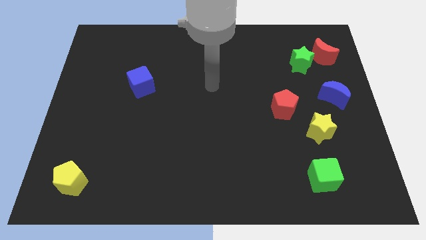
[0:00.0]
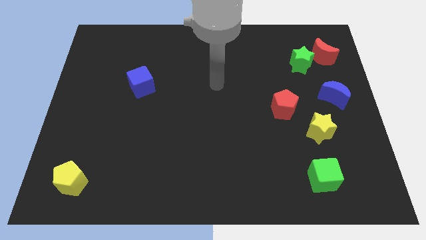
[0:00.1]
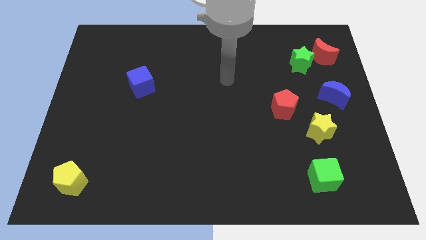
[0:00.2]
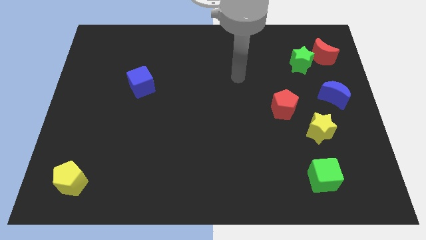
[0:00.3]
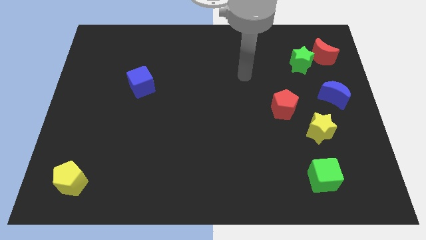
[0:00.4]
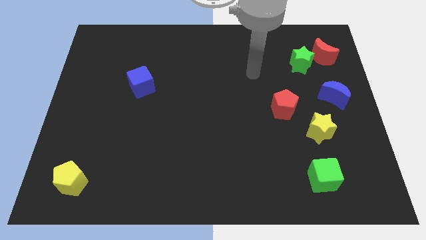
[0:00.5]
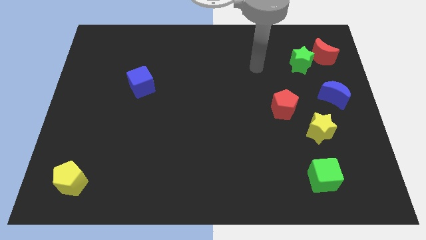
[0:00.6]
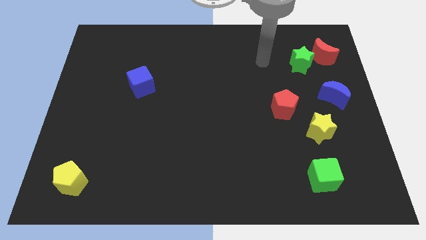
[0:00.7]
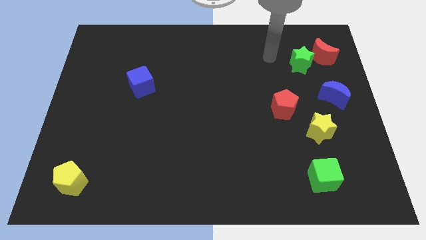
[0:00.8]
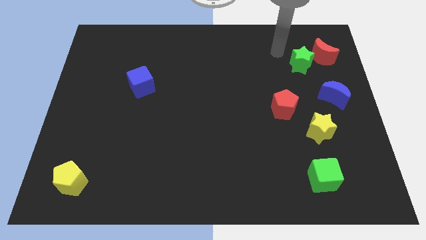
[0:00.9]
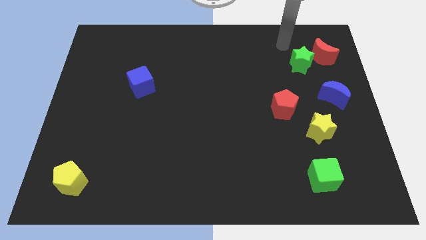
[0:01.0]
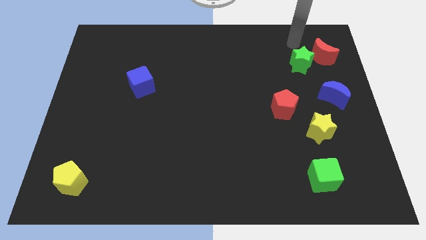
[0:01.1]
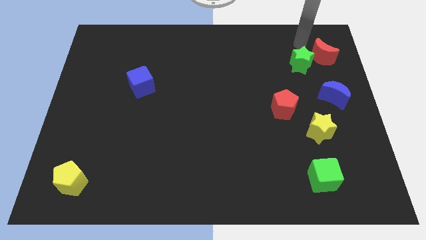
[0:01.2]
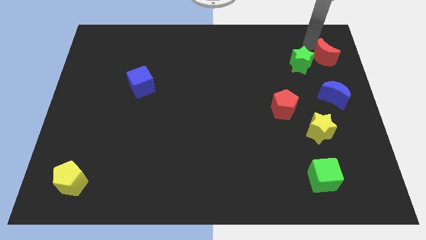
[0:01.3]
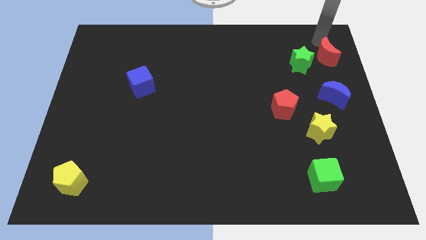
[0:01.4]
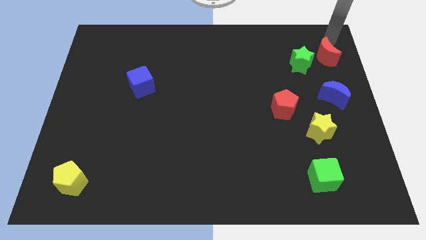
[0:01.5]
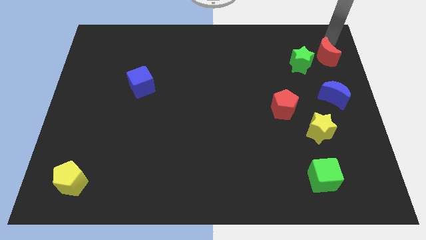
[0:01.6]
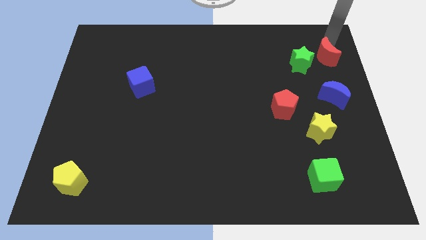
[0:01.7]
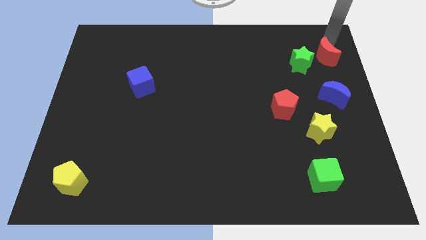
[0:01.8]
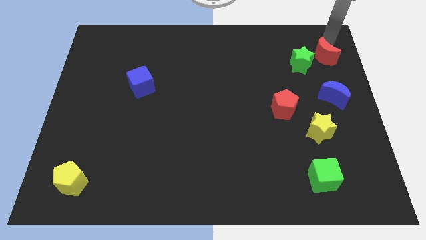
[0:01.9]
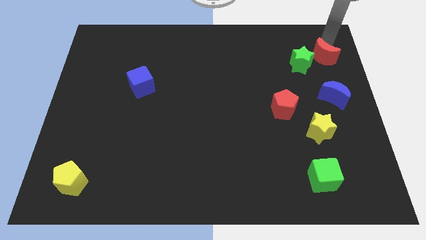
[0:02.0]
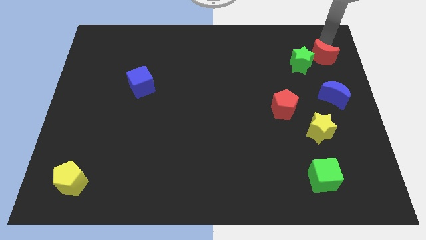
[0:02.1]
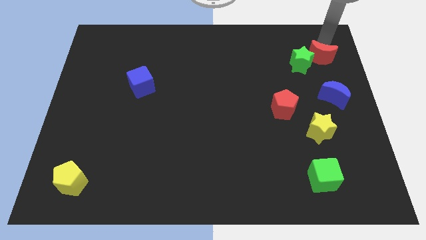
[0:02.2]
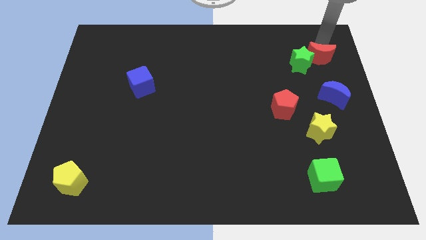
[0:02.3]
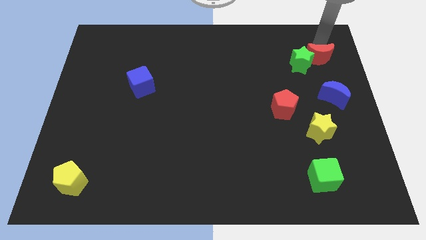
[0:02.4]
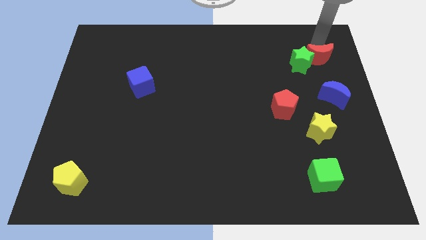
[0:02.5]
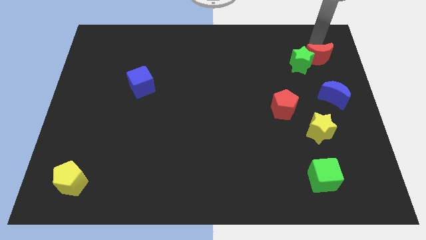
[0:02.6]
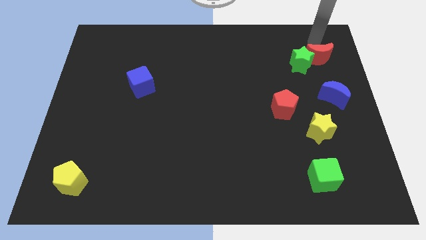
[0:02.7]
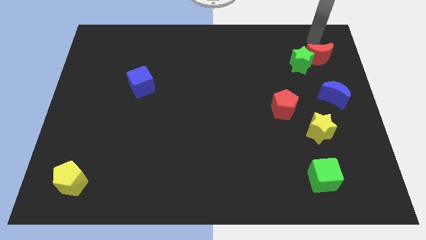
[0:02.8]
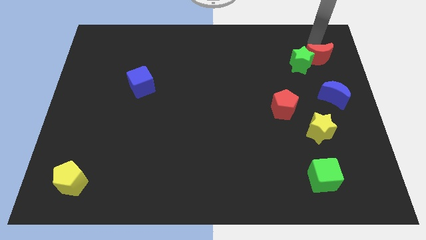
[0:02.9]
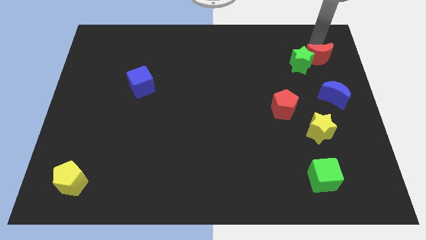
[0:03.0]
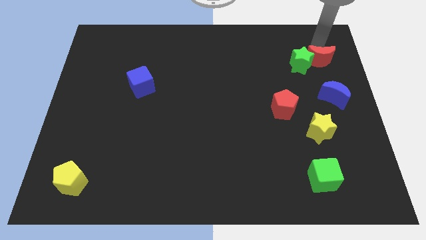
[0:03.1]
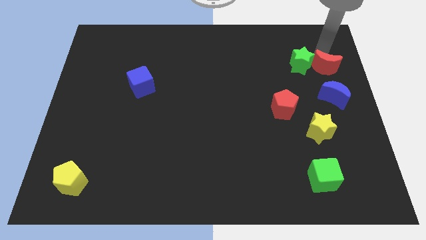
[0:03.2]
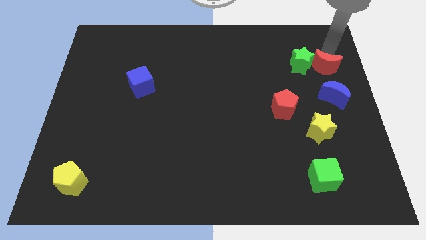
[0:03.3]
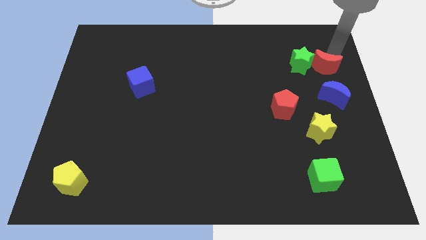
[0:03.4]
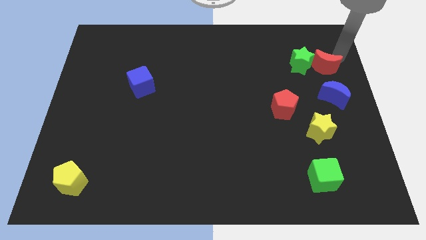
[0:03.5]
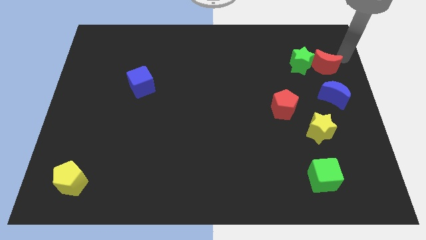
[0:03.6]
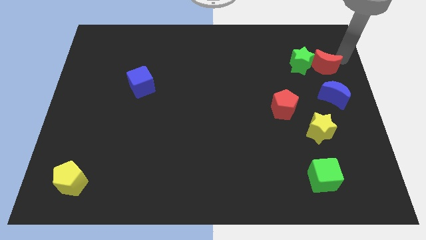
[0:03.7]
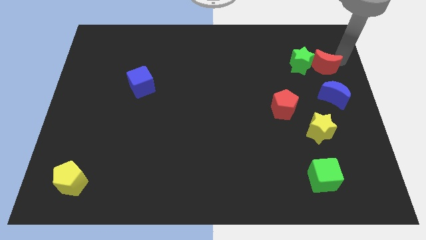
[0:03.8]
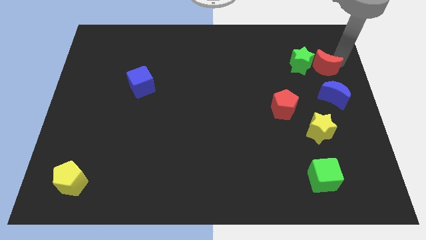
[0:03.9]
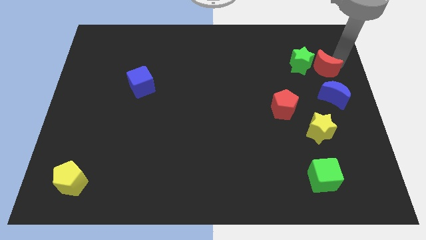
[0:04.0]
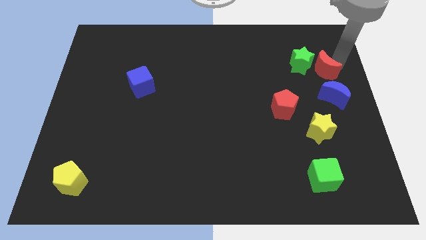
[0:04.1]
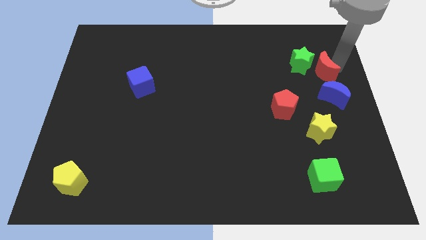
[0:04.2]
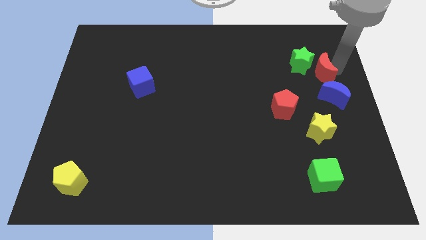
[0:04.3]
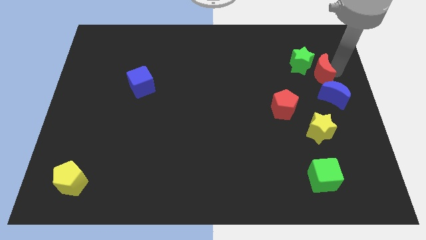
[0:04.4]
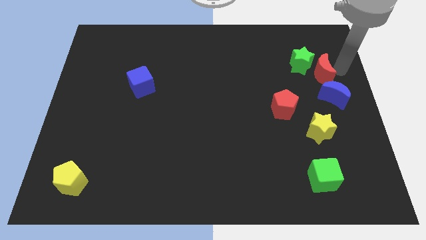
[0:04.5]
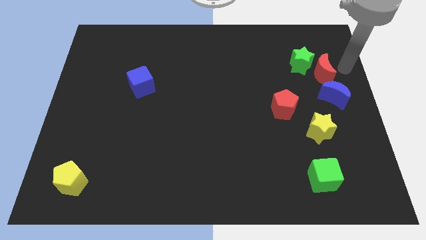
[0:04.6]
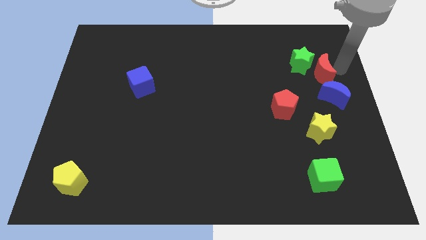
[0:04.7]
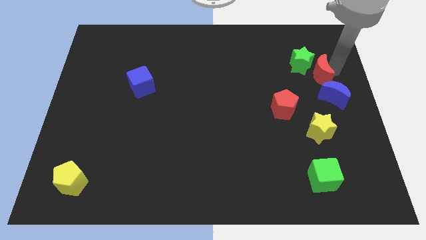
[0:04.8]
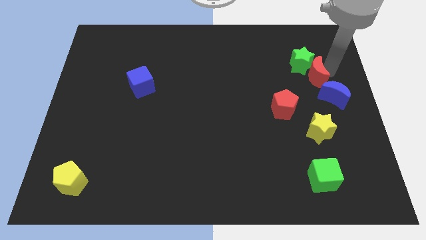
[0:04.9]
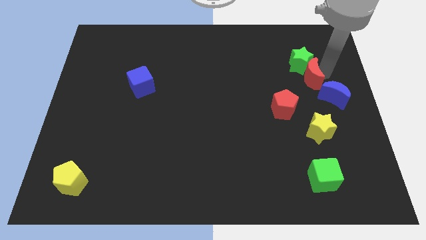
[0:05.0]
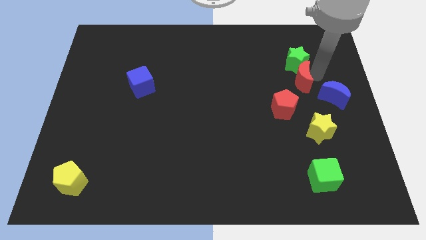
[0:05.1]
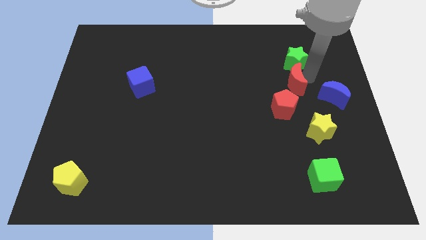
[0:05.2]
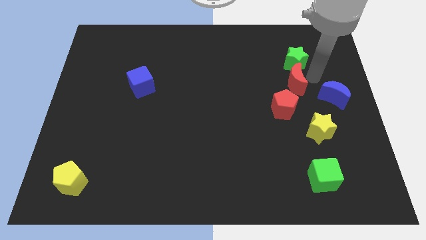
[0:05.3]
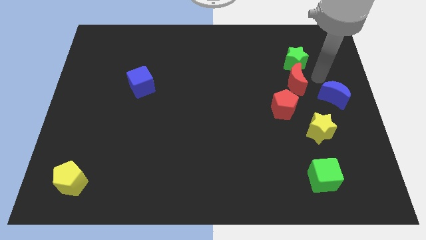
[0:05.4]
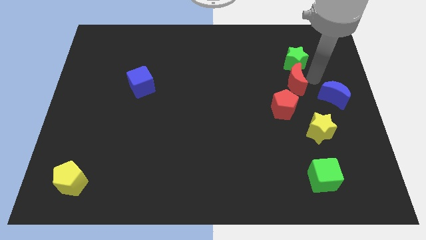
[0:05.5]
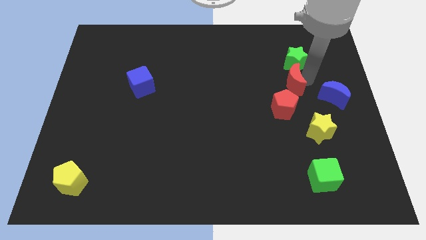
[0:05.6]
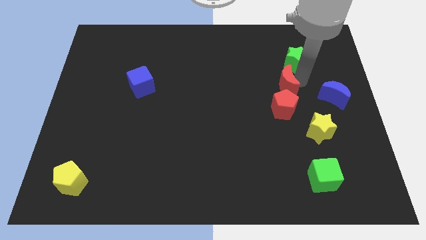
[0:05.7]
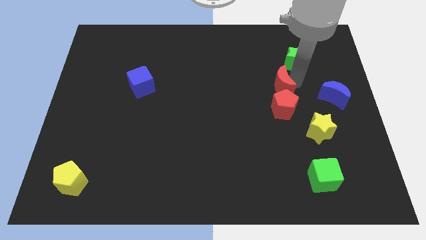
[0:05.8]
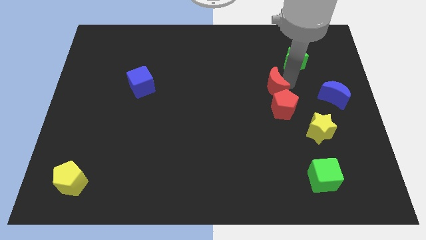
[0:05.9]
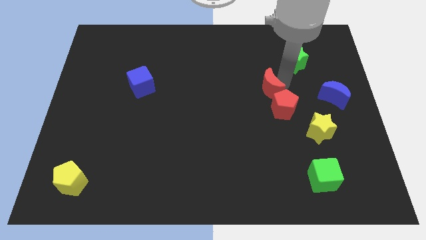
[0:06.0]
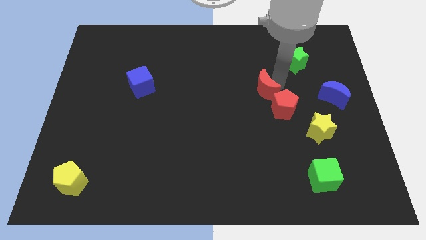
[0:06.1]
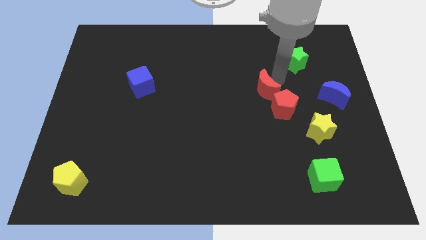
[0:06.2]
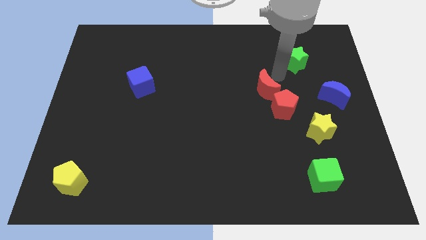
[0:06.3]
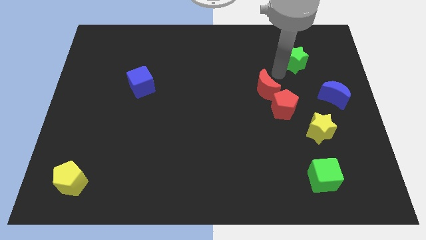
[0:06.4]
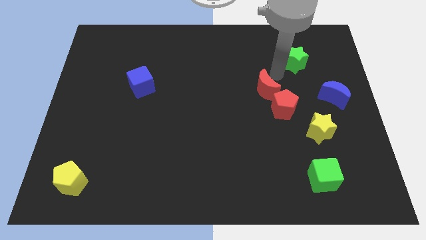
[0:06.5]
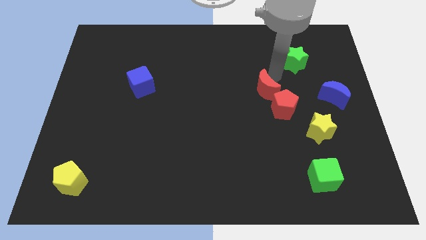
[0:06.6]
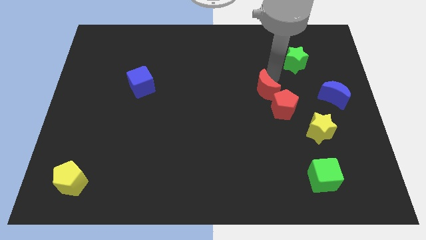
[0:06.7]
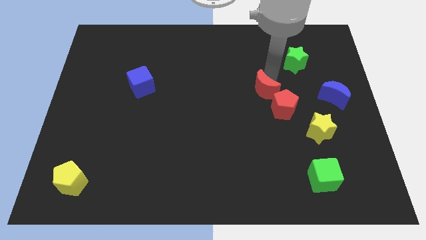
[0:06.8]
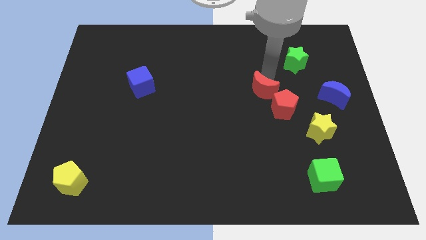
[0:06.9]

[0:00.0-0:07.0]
slide the red moon diagonally downwards and to the left

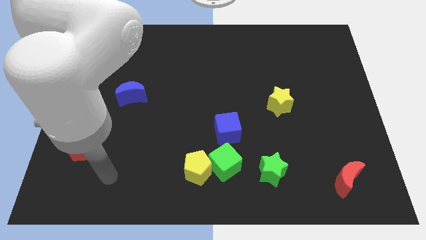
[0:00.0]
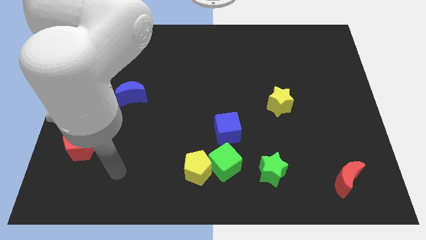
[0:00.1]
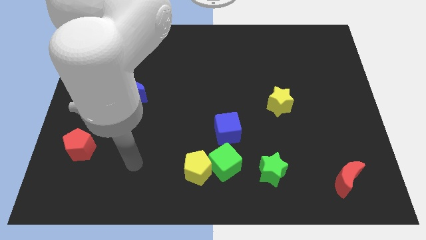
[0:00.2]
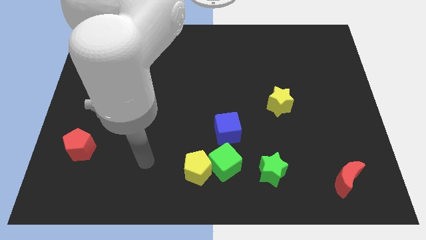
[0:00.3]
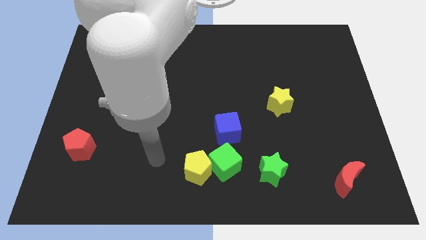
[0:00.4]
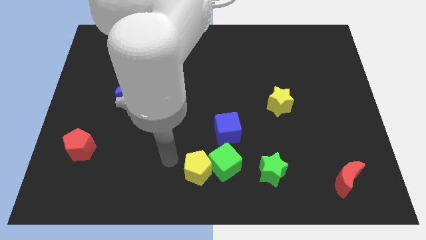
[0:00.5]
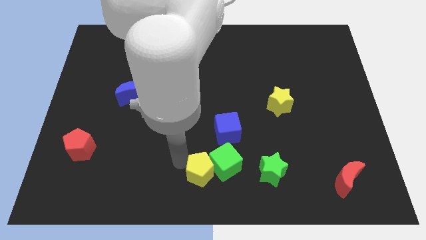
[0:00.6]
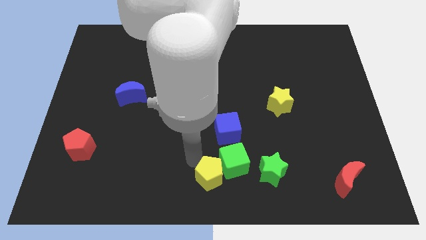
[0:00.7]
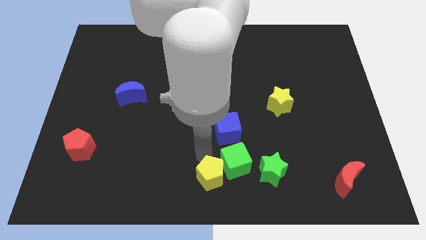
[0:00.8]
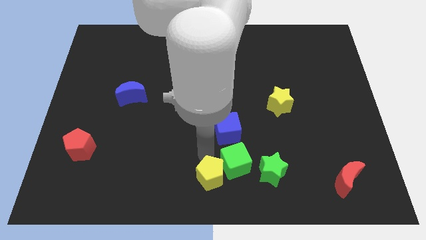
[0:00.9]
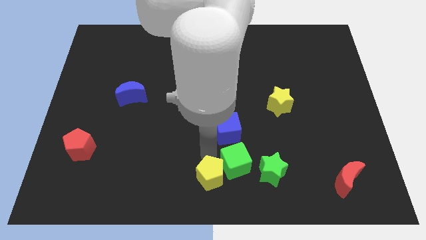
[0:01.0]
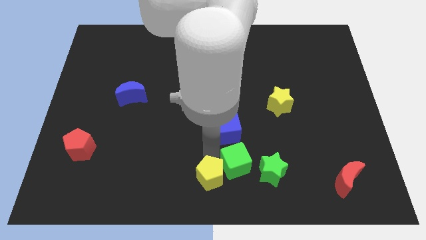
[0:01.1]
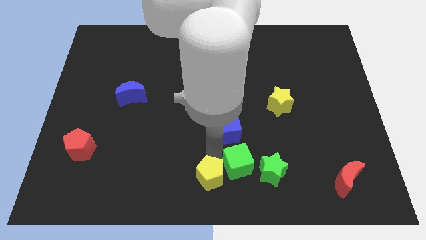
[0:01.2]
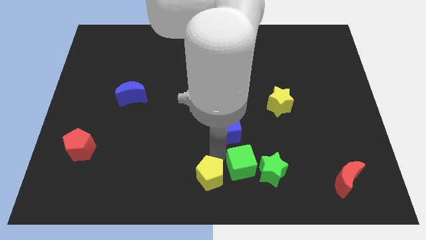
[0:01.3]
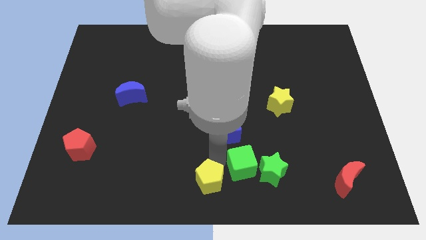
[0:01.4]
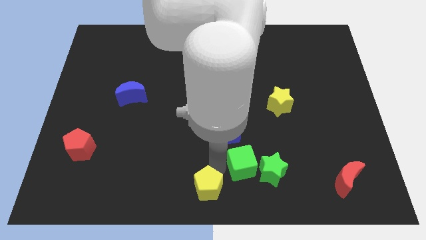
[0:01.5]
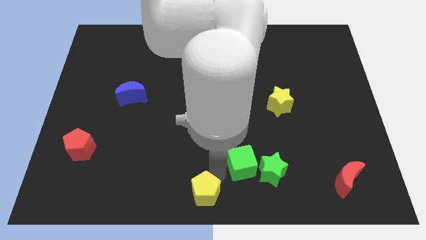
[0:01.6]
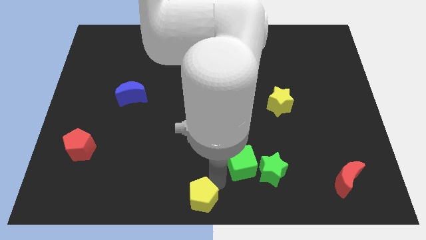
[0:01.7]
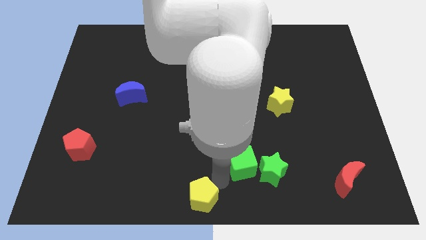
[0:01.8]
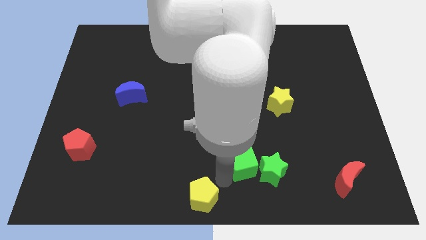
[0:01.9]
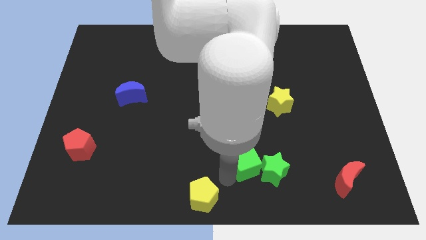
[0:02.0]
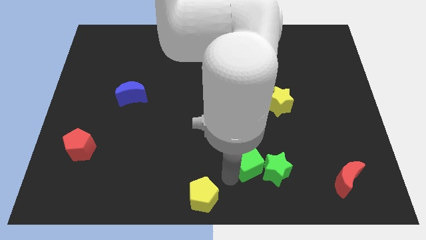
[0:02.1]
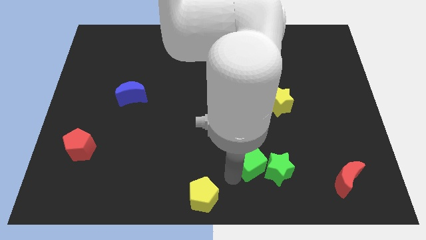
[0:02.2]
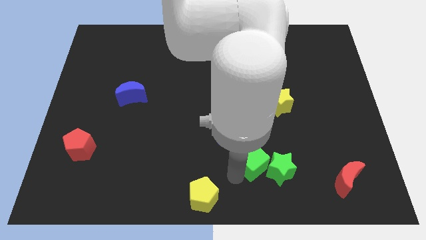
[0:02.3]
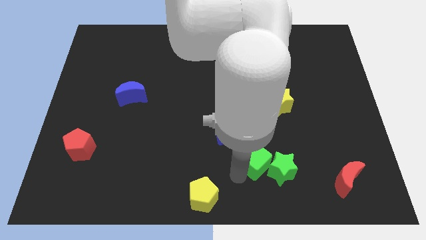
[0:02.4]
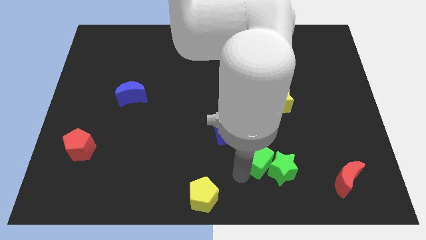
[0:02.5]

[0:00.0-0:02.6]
move the green cube right a bit
